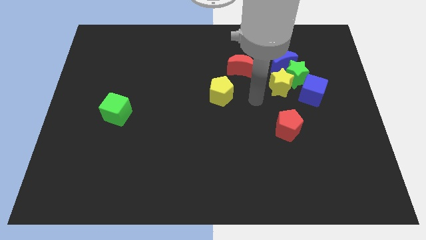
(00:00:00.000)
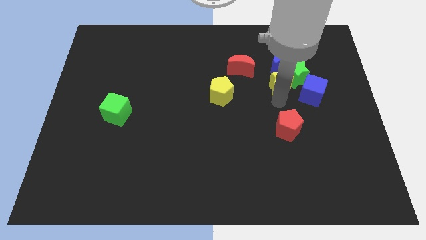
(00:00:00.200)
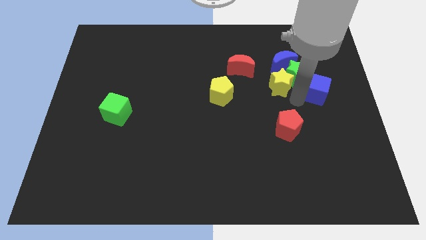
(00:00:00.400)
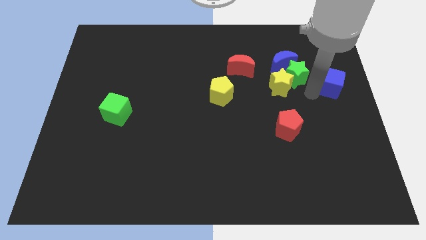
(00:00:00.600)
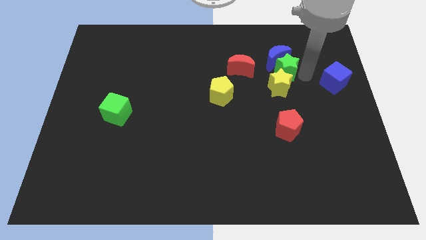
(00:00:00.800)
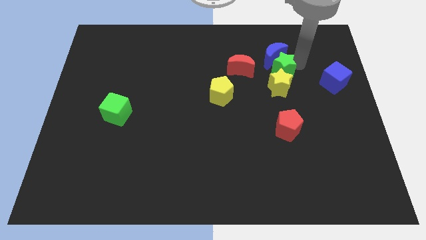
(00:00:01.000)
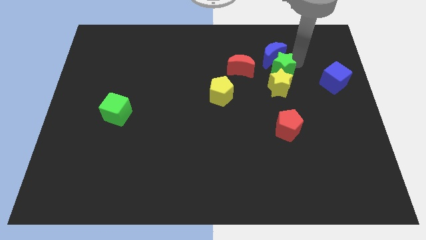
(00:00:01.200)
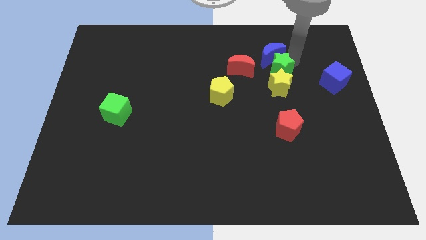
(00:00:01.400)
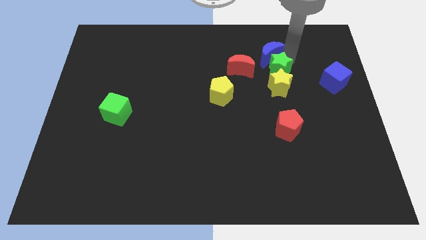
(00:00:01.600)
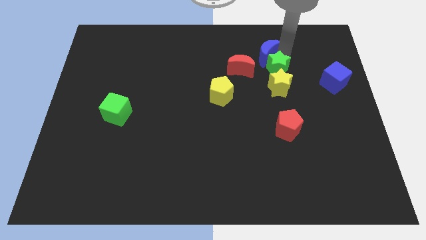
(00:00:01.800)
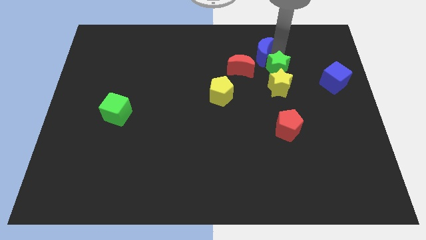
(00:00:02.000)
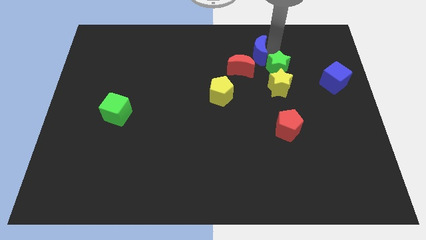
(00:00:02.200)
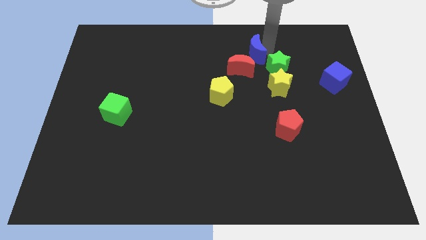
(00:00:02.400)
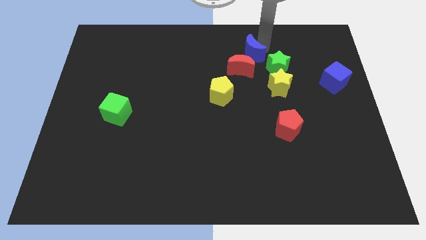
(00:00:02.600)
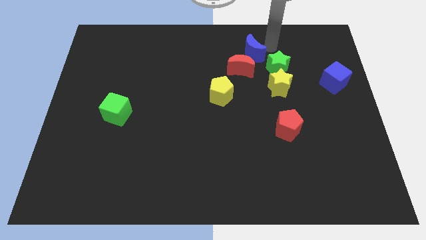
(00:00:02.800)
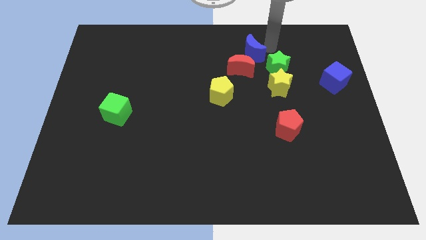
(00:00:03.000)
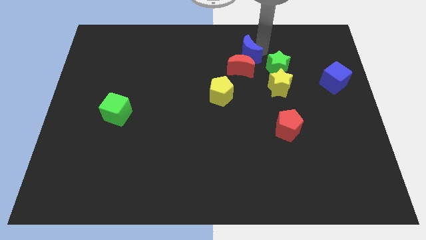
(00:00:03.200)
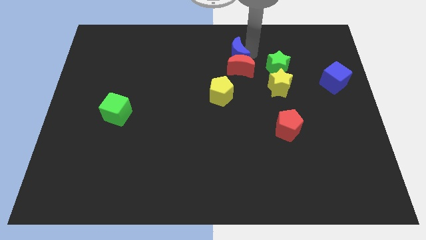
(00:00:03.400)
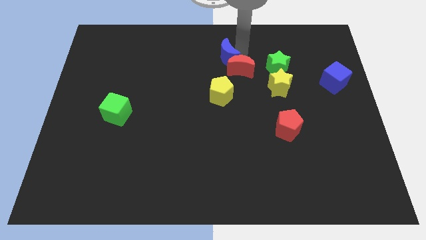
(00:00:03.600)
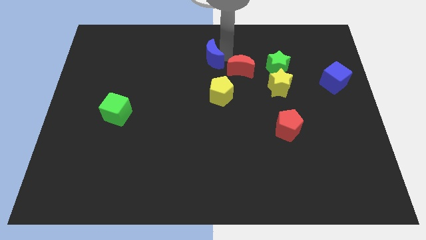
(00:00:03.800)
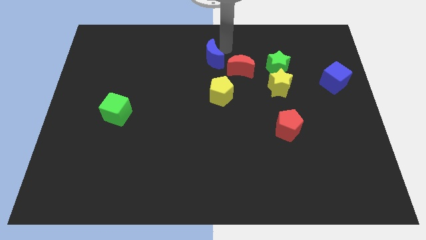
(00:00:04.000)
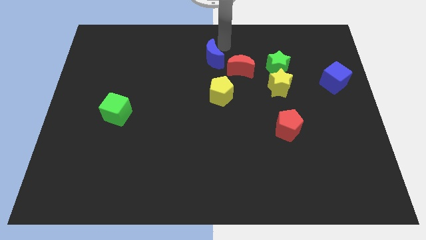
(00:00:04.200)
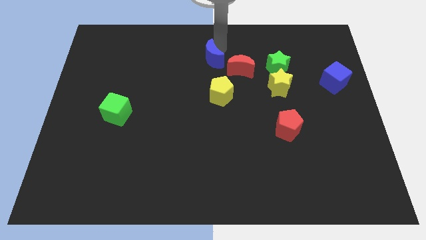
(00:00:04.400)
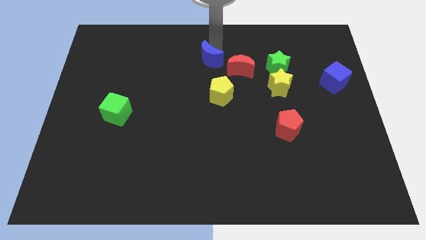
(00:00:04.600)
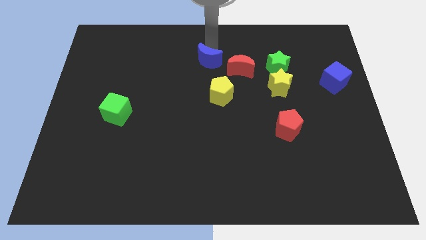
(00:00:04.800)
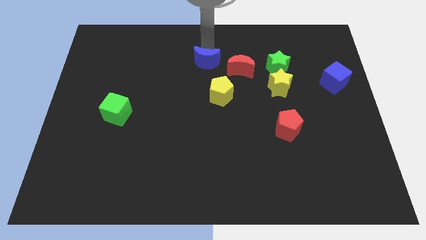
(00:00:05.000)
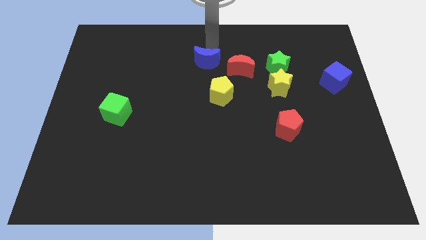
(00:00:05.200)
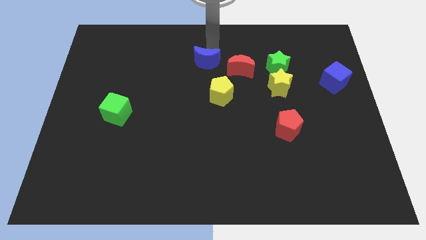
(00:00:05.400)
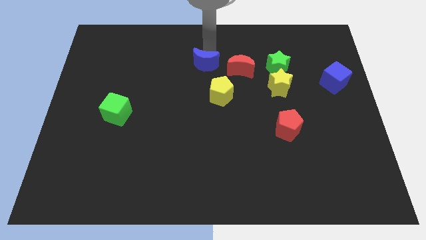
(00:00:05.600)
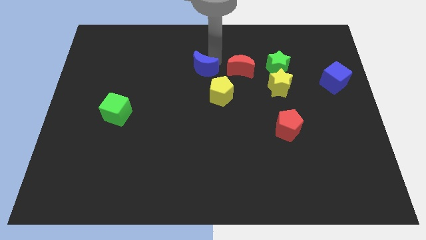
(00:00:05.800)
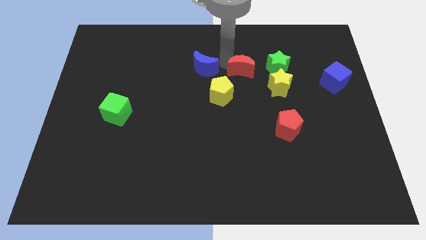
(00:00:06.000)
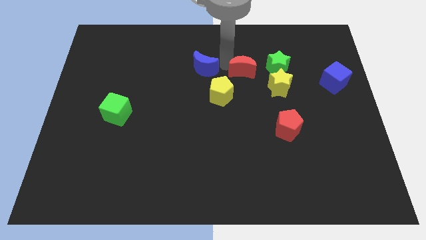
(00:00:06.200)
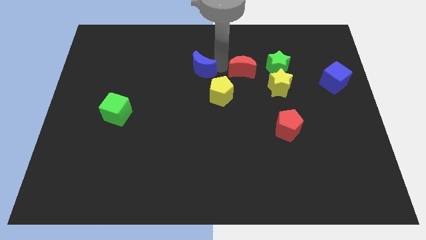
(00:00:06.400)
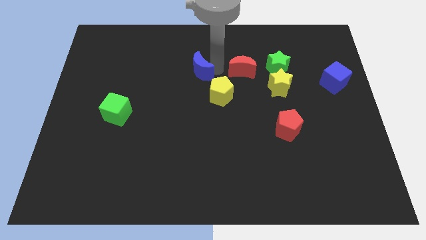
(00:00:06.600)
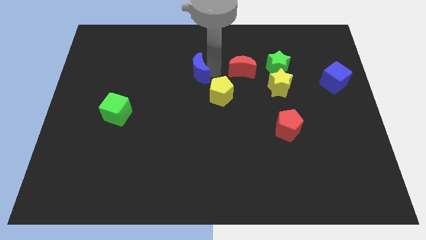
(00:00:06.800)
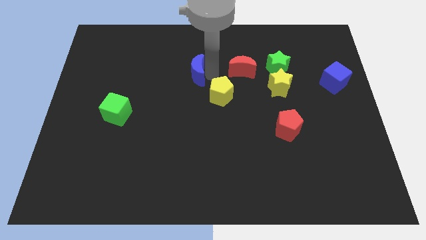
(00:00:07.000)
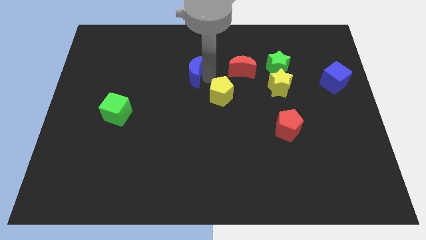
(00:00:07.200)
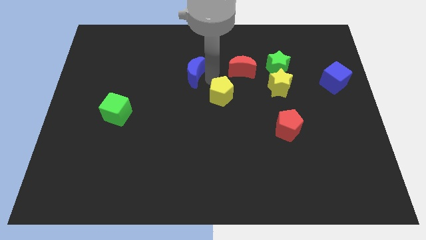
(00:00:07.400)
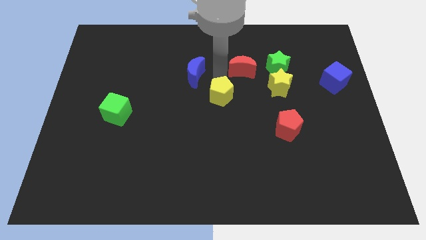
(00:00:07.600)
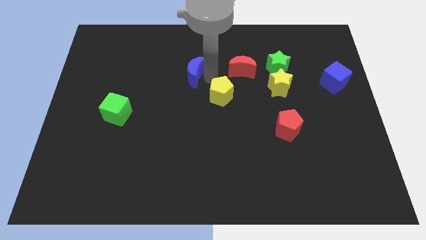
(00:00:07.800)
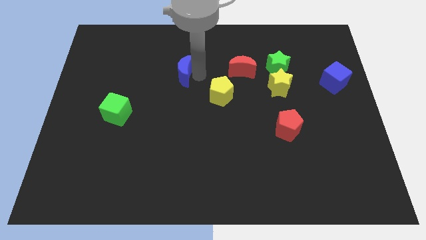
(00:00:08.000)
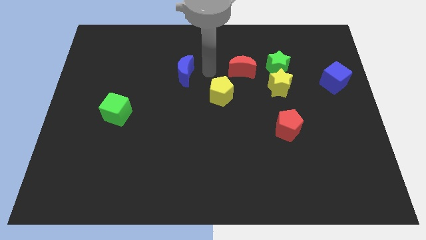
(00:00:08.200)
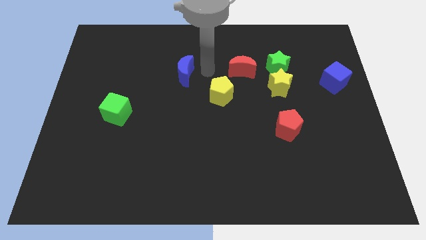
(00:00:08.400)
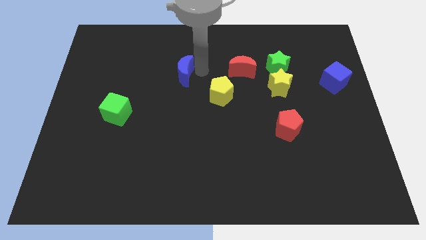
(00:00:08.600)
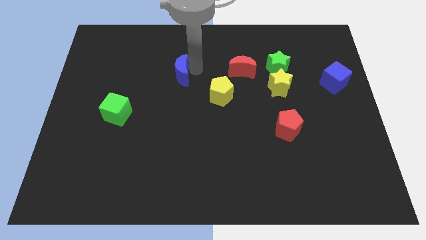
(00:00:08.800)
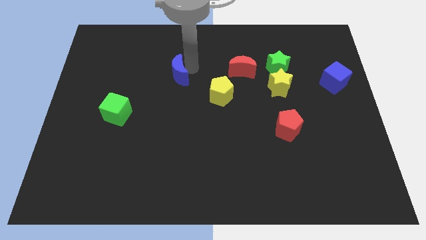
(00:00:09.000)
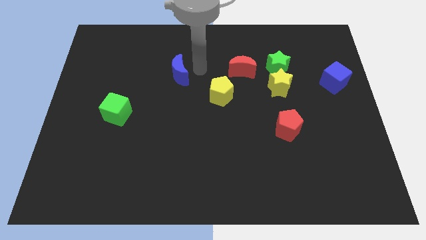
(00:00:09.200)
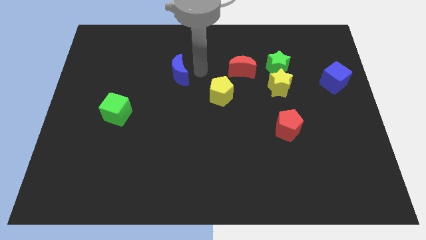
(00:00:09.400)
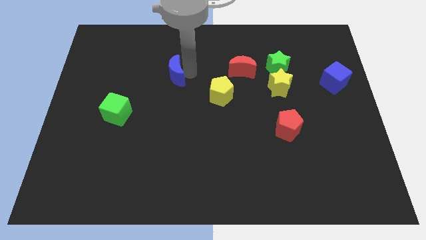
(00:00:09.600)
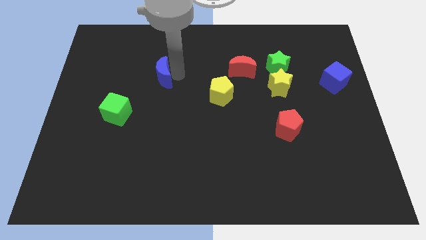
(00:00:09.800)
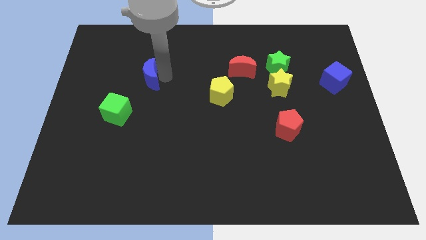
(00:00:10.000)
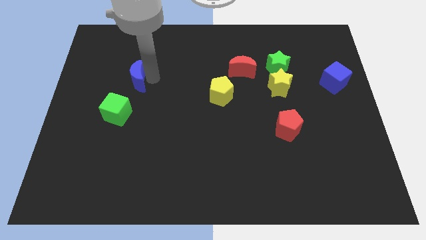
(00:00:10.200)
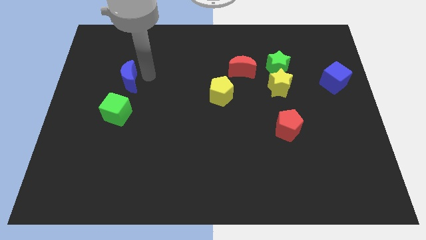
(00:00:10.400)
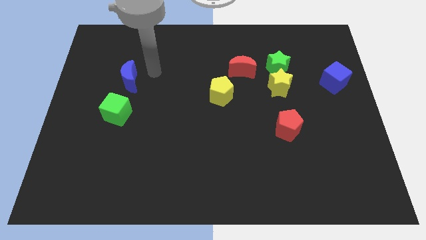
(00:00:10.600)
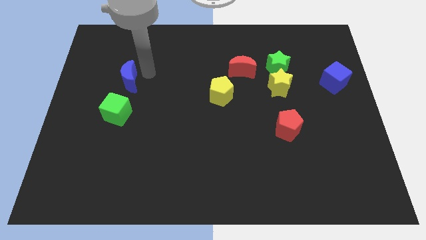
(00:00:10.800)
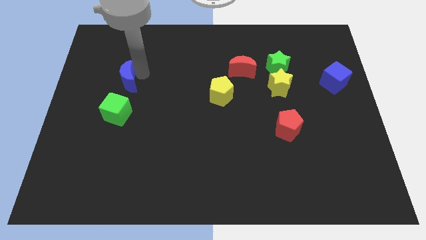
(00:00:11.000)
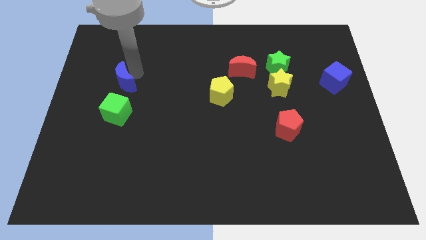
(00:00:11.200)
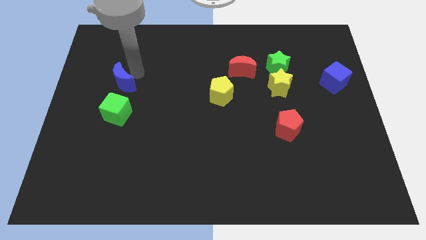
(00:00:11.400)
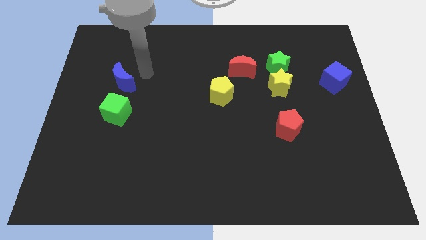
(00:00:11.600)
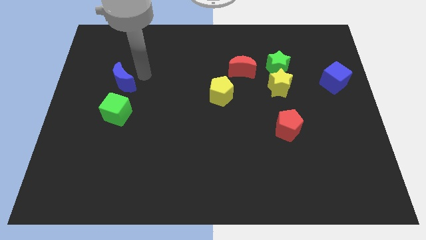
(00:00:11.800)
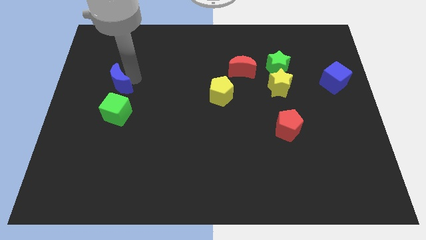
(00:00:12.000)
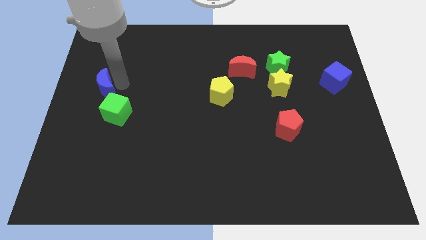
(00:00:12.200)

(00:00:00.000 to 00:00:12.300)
slide the blue moon to the left side of the board
